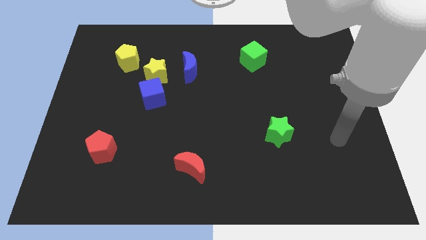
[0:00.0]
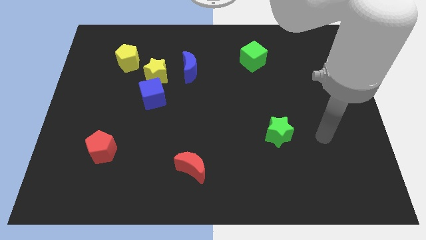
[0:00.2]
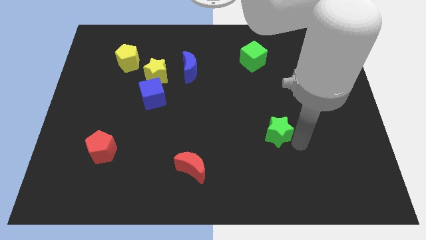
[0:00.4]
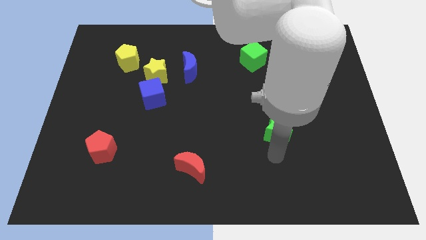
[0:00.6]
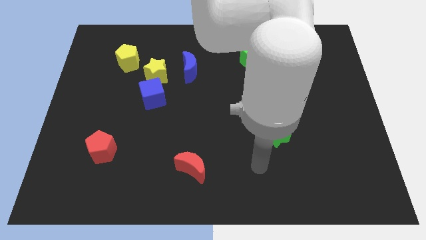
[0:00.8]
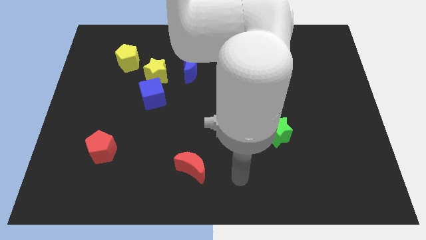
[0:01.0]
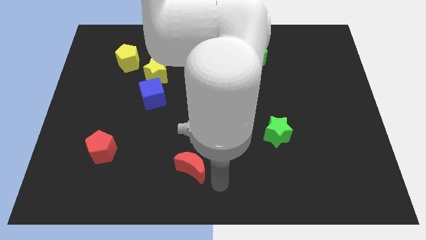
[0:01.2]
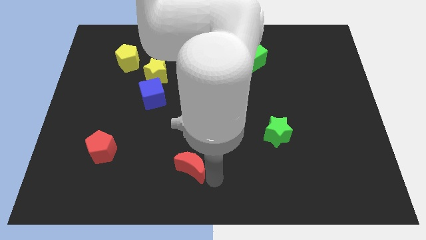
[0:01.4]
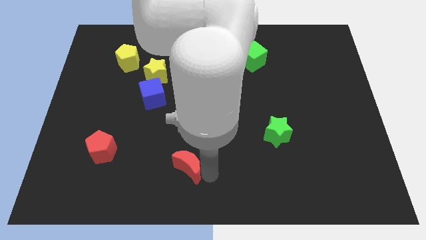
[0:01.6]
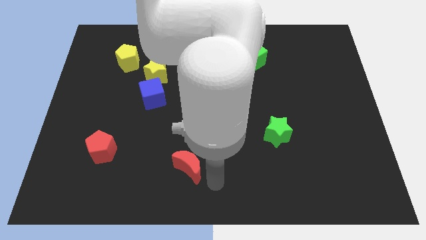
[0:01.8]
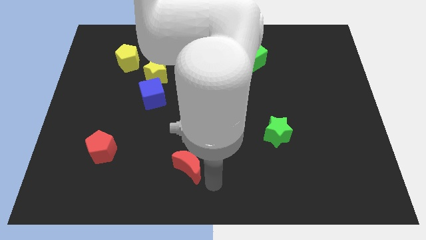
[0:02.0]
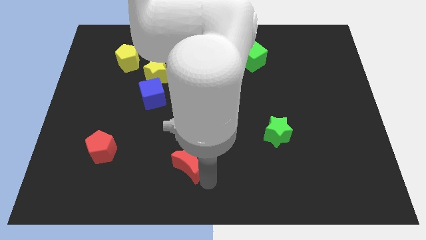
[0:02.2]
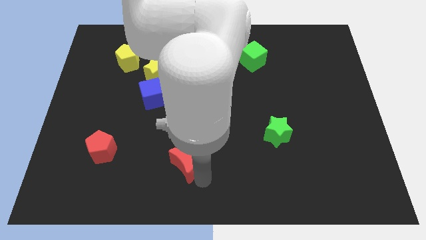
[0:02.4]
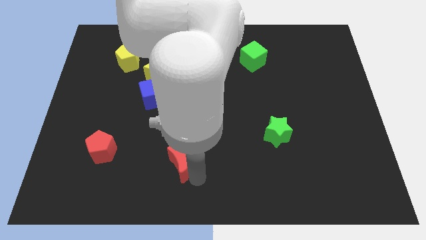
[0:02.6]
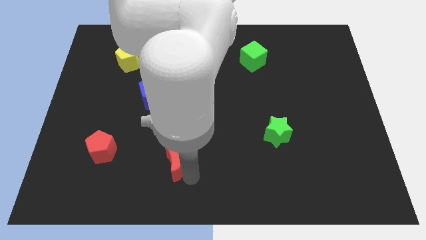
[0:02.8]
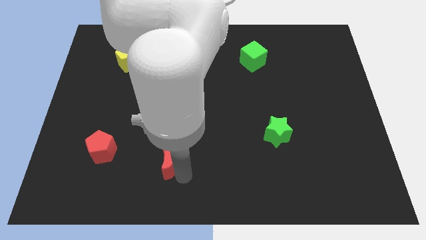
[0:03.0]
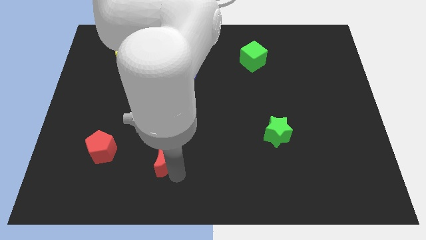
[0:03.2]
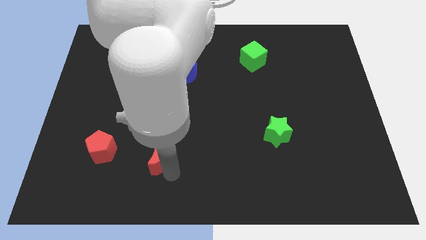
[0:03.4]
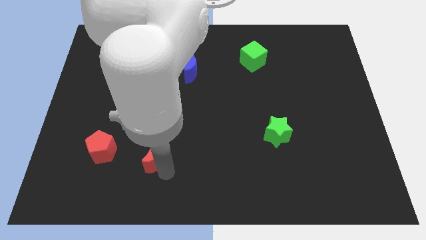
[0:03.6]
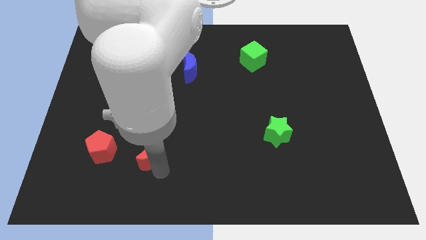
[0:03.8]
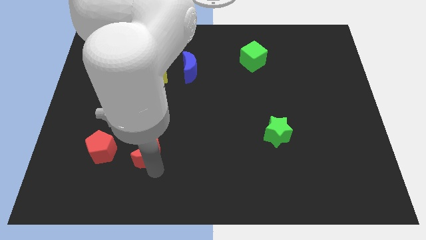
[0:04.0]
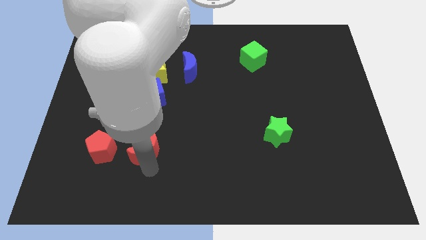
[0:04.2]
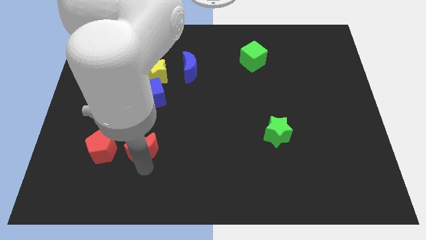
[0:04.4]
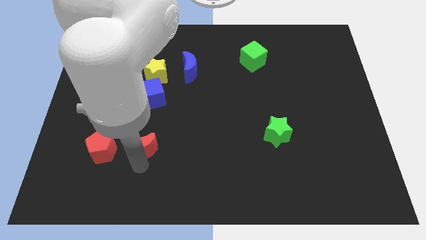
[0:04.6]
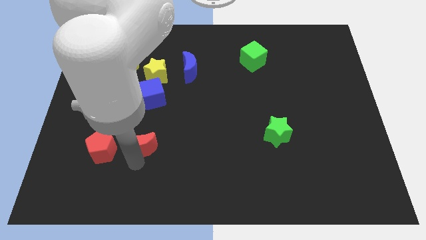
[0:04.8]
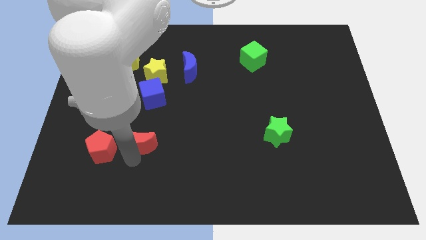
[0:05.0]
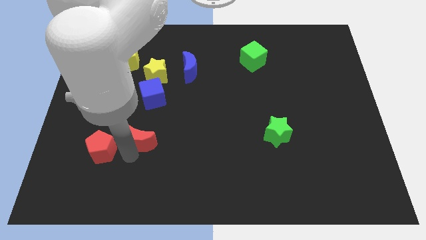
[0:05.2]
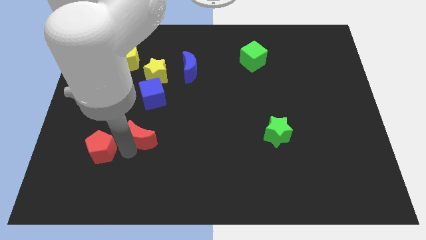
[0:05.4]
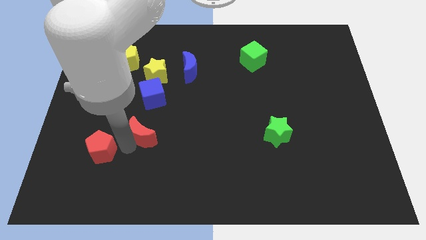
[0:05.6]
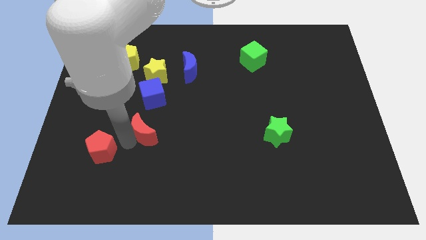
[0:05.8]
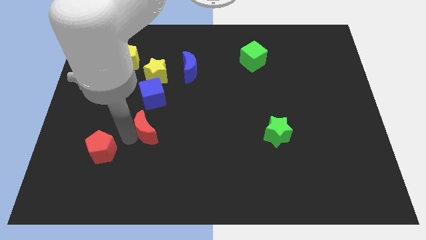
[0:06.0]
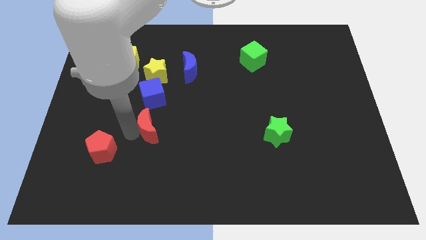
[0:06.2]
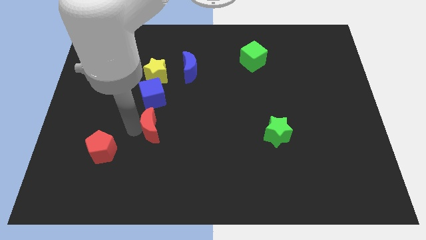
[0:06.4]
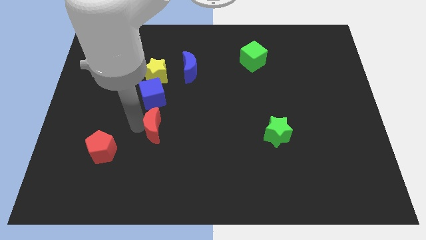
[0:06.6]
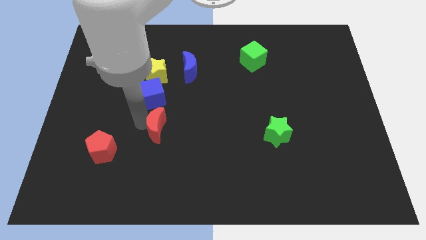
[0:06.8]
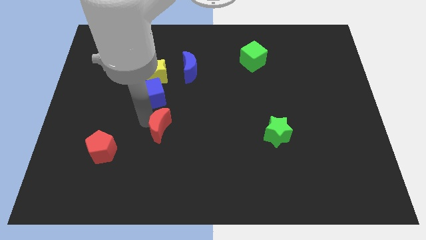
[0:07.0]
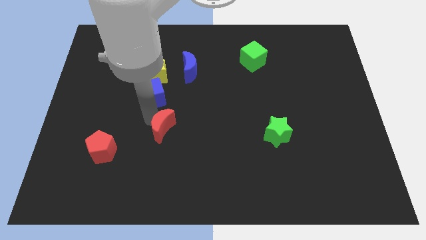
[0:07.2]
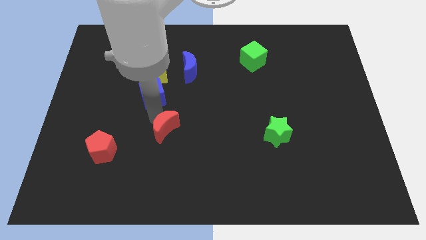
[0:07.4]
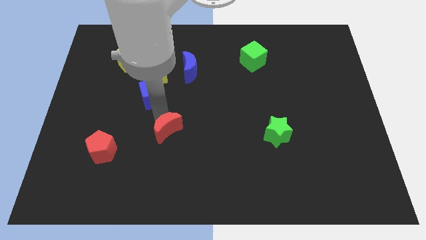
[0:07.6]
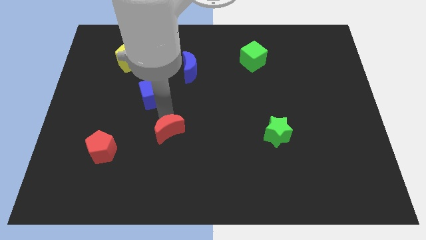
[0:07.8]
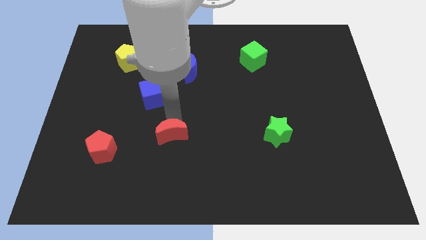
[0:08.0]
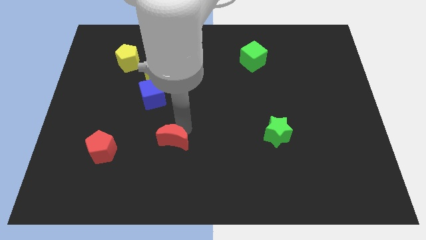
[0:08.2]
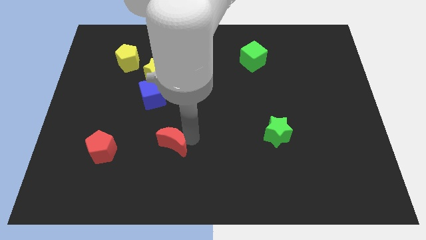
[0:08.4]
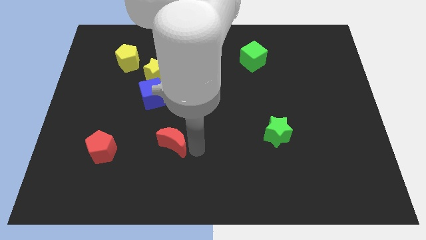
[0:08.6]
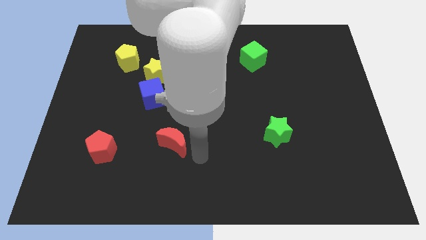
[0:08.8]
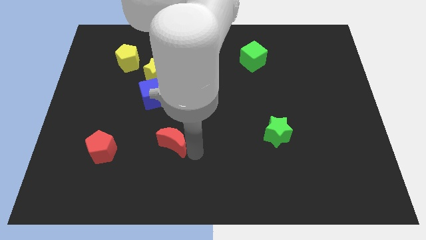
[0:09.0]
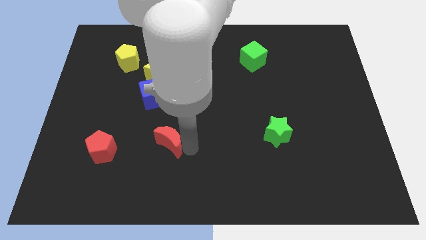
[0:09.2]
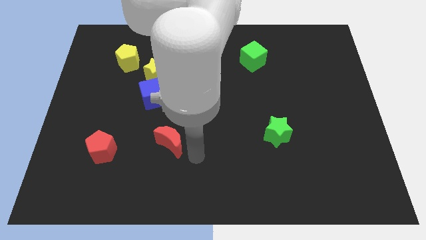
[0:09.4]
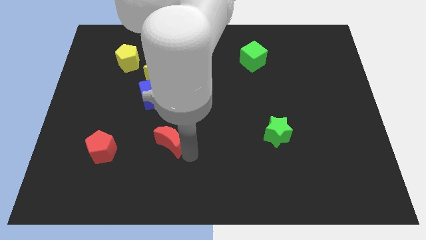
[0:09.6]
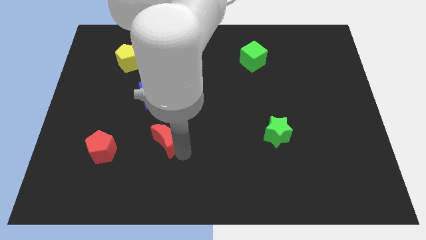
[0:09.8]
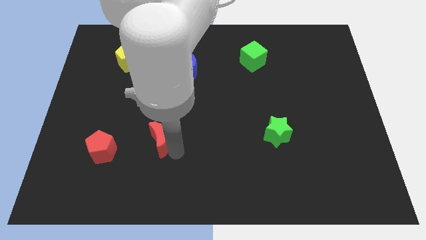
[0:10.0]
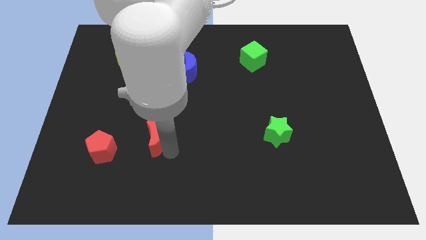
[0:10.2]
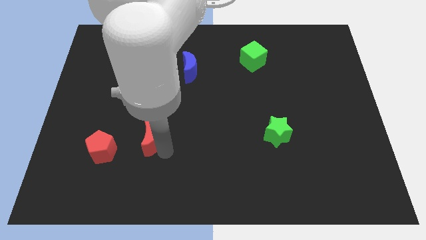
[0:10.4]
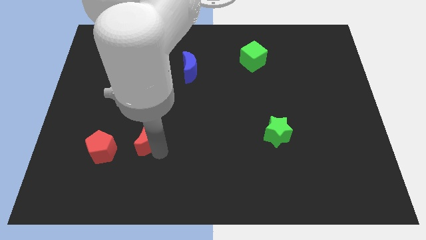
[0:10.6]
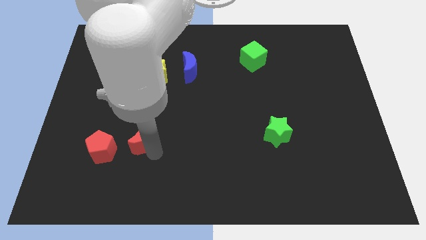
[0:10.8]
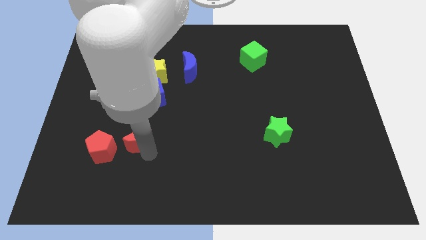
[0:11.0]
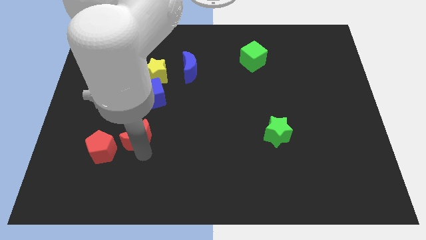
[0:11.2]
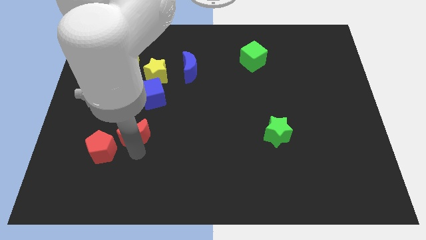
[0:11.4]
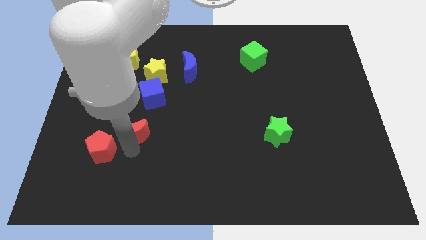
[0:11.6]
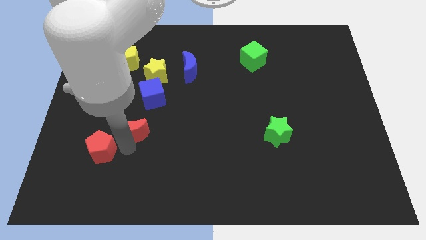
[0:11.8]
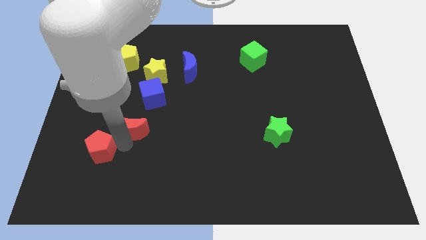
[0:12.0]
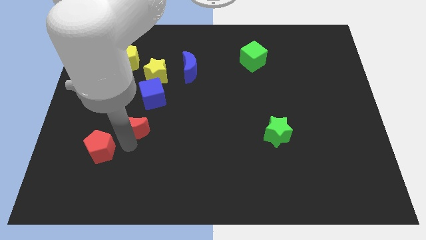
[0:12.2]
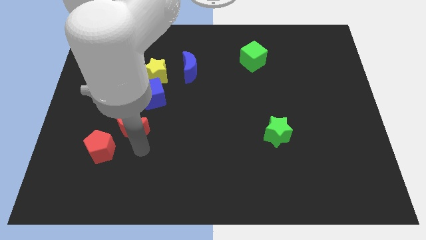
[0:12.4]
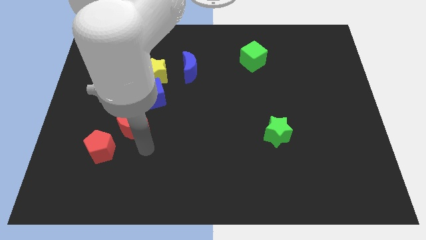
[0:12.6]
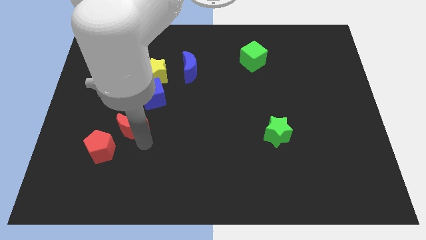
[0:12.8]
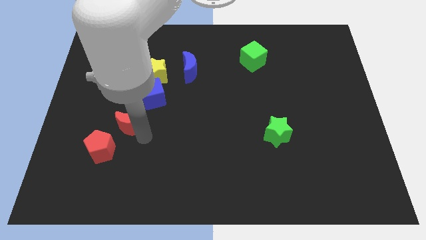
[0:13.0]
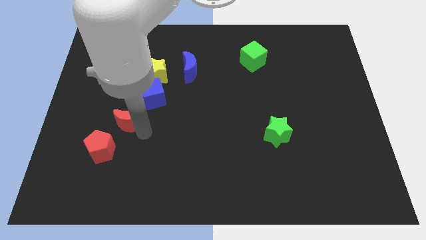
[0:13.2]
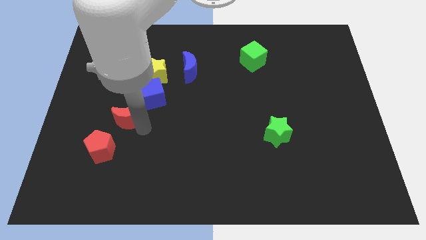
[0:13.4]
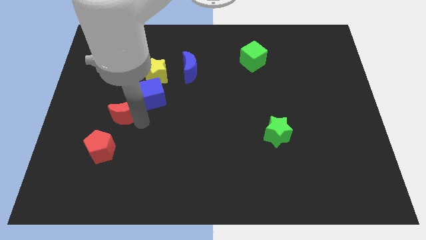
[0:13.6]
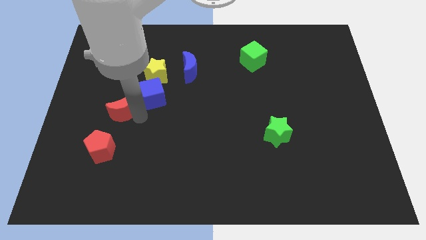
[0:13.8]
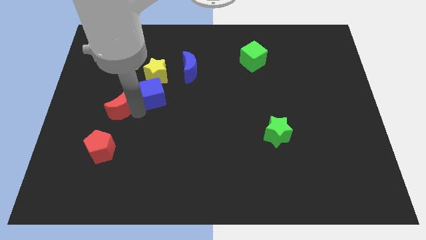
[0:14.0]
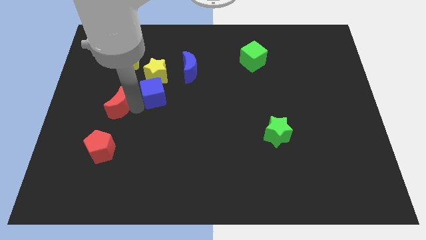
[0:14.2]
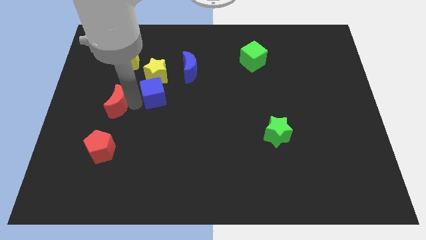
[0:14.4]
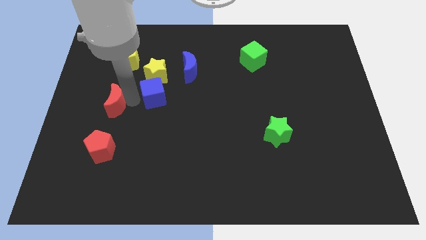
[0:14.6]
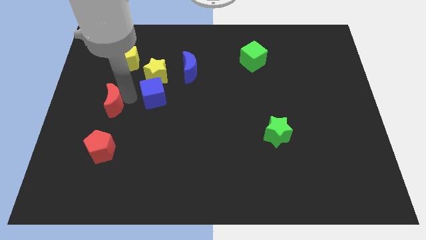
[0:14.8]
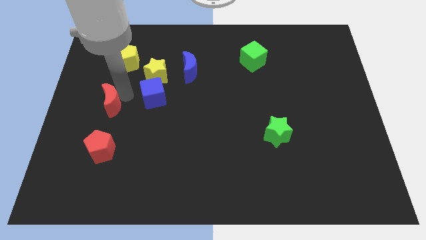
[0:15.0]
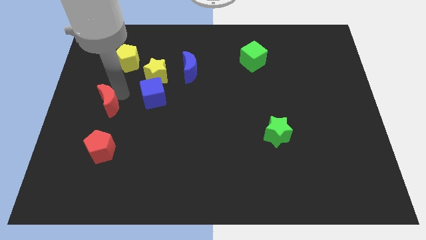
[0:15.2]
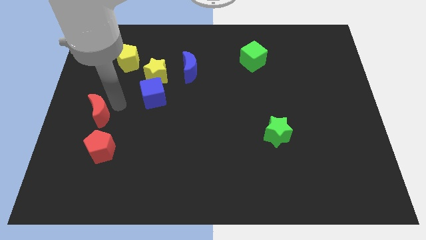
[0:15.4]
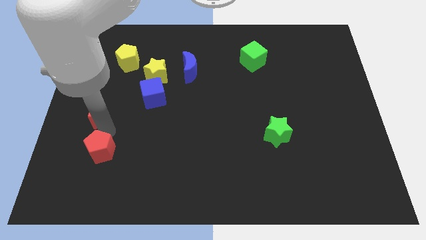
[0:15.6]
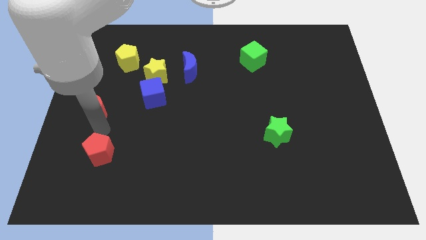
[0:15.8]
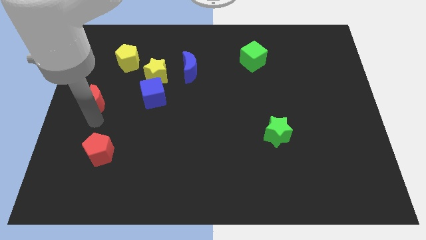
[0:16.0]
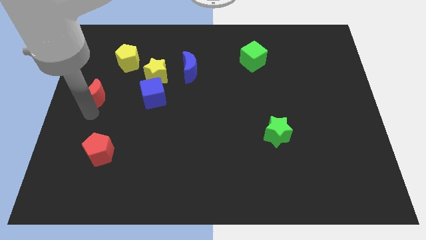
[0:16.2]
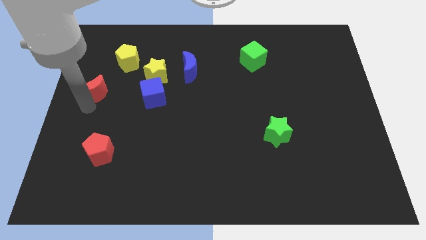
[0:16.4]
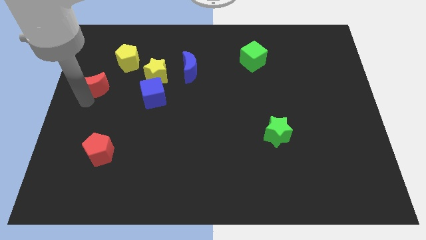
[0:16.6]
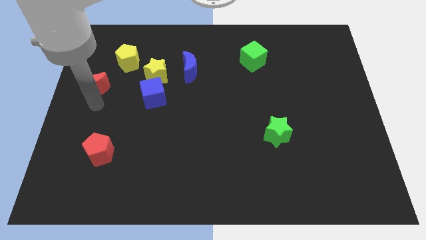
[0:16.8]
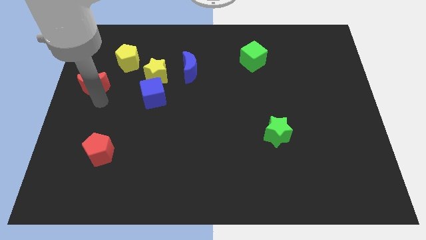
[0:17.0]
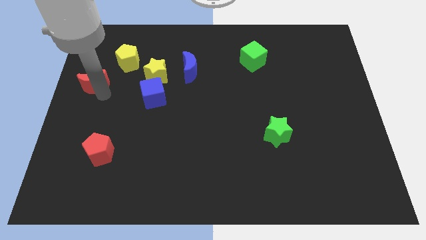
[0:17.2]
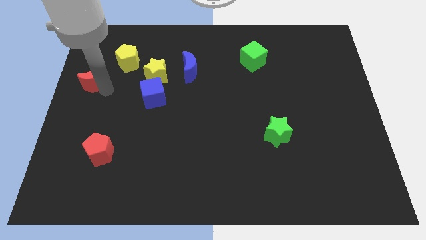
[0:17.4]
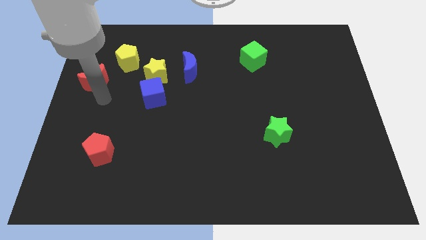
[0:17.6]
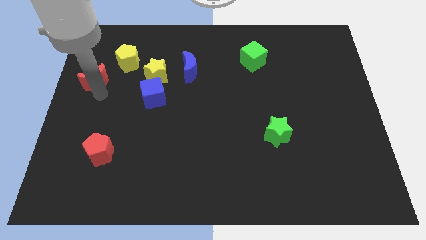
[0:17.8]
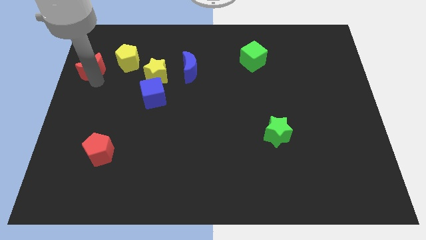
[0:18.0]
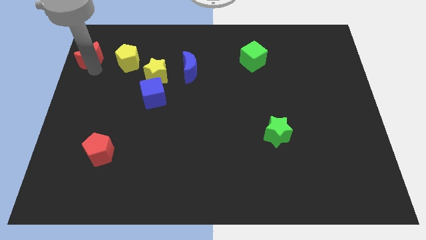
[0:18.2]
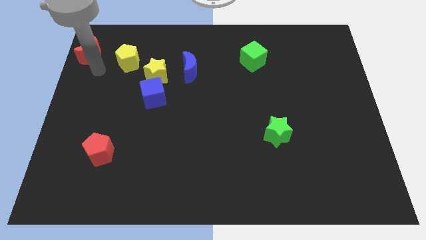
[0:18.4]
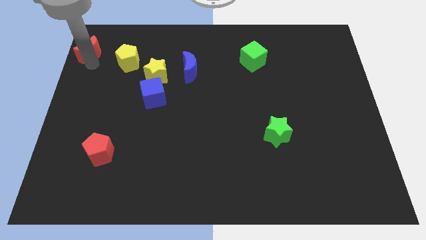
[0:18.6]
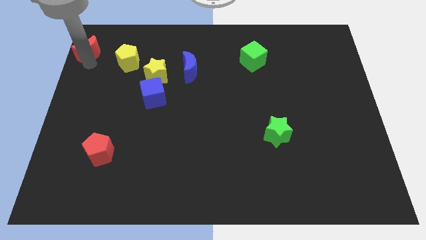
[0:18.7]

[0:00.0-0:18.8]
slide the red moon to the top left of the board
